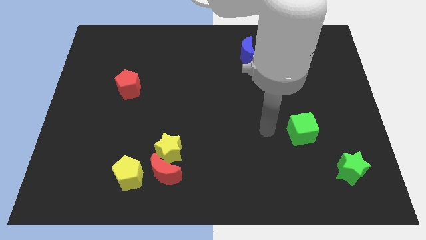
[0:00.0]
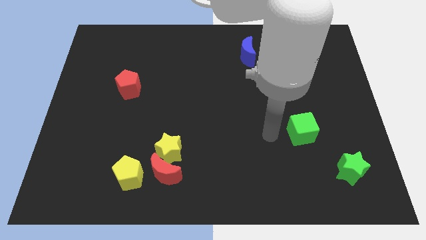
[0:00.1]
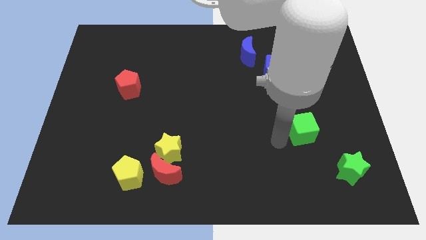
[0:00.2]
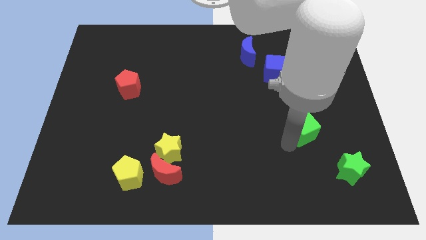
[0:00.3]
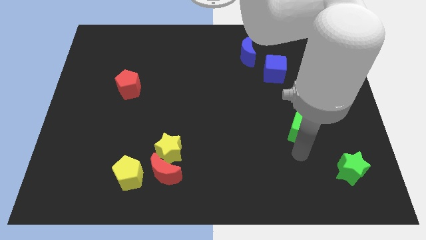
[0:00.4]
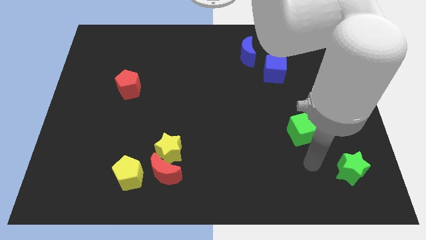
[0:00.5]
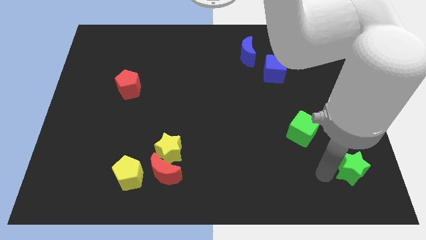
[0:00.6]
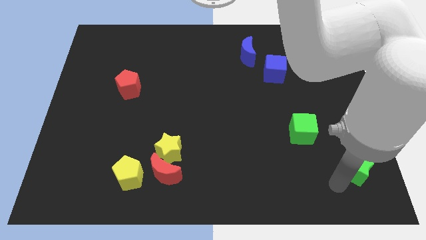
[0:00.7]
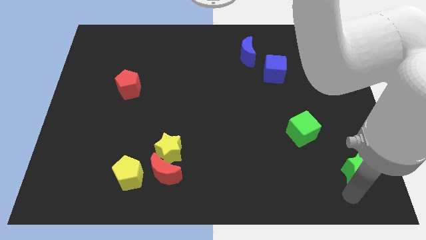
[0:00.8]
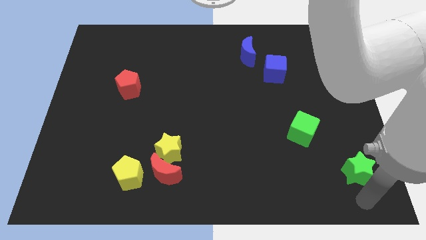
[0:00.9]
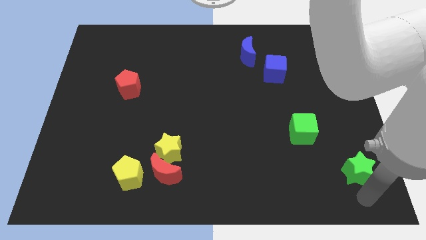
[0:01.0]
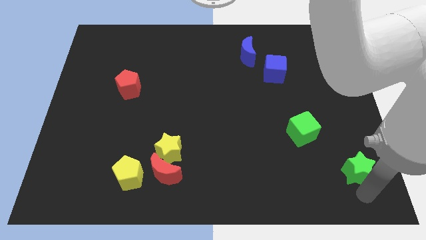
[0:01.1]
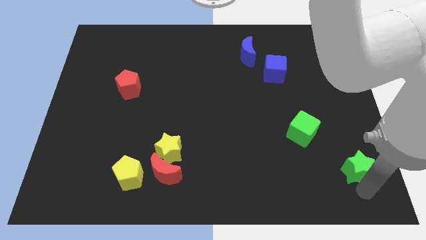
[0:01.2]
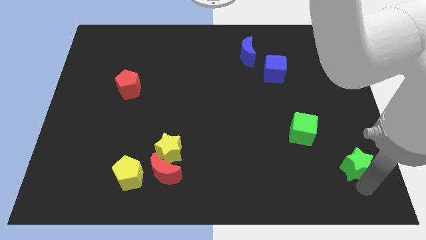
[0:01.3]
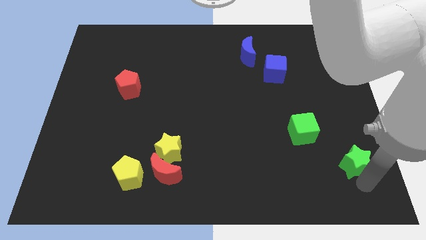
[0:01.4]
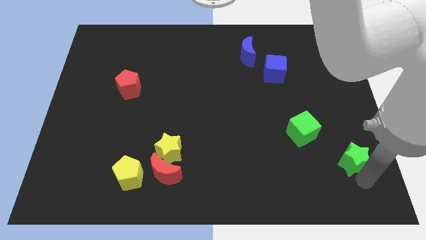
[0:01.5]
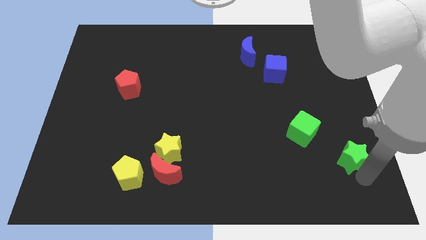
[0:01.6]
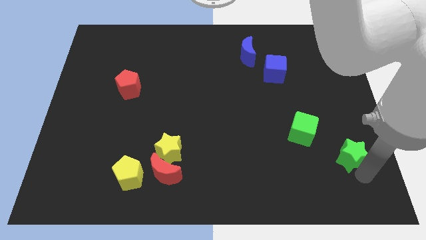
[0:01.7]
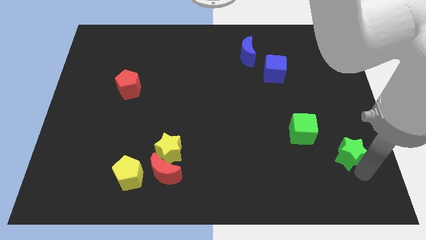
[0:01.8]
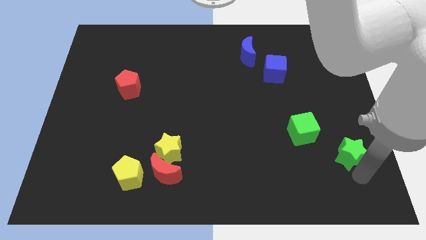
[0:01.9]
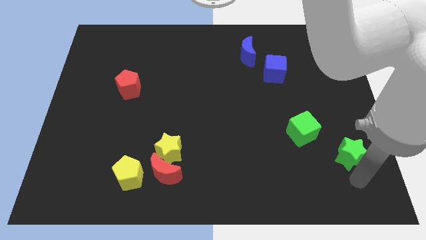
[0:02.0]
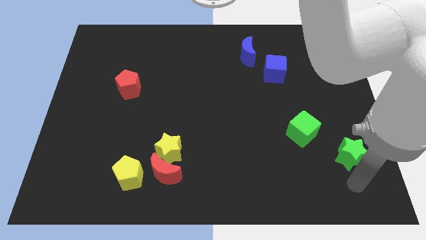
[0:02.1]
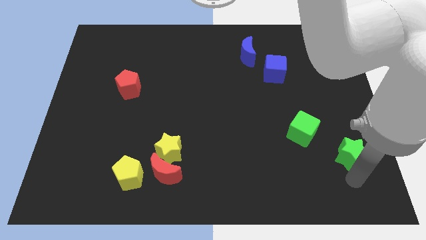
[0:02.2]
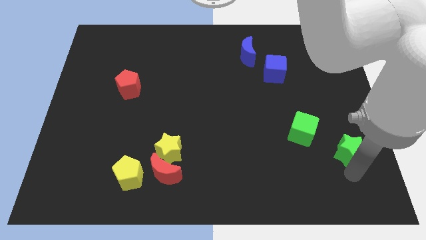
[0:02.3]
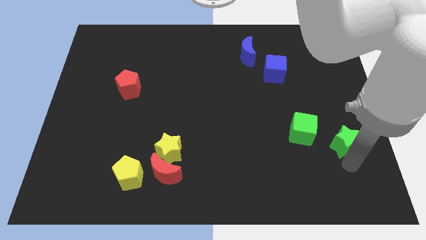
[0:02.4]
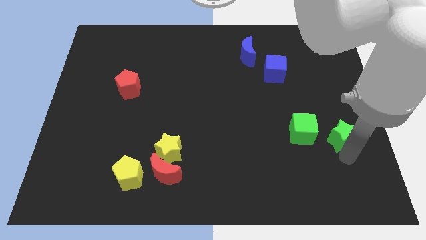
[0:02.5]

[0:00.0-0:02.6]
move the green star up somewhat

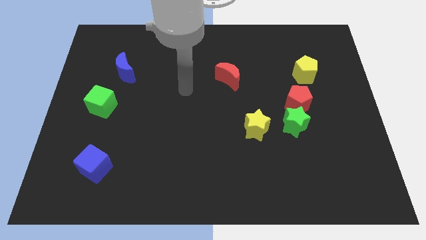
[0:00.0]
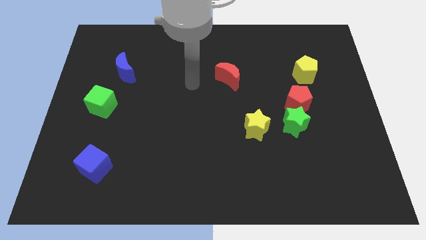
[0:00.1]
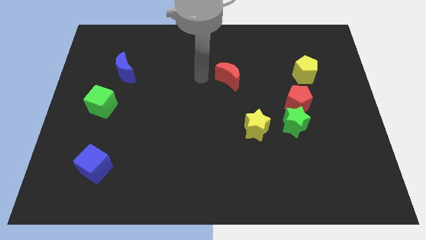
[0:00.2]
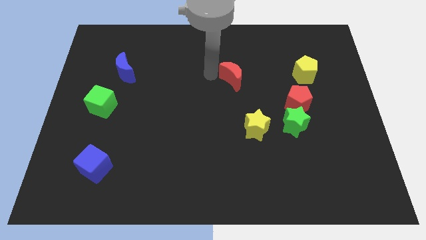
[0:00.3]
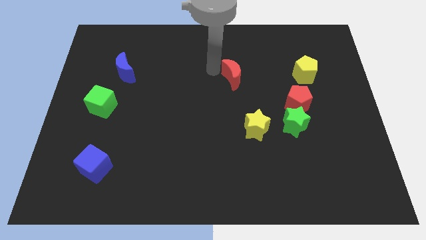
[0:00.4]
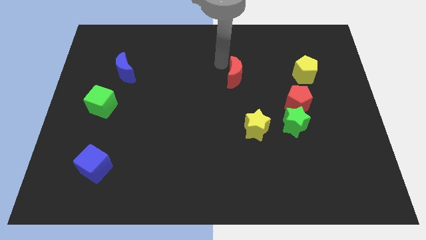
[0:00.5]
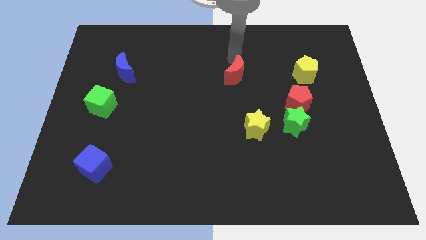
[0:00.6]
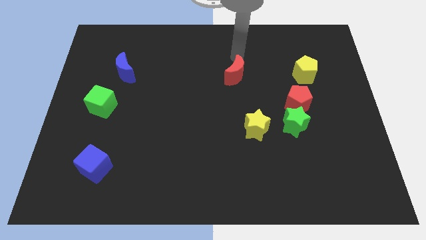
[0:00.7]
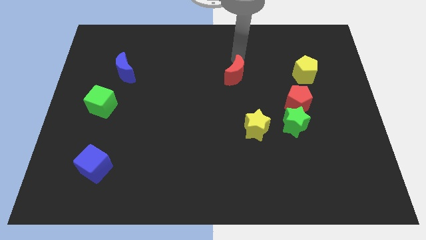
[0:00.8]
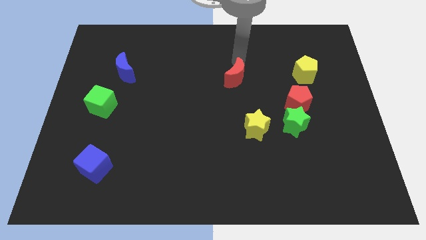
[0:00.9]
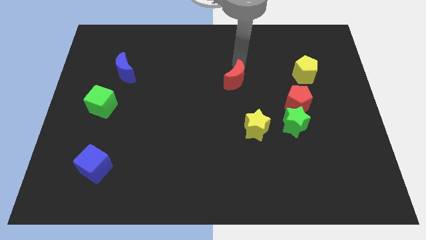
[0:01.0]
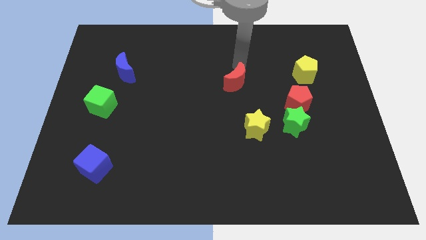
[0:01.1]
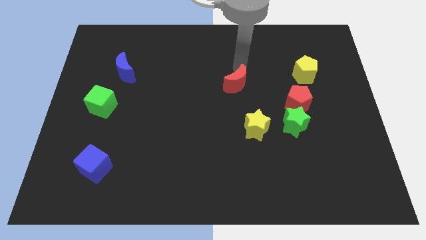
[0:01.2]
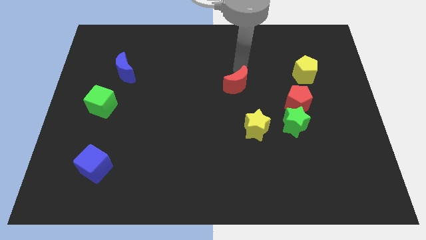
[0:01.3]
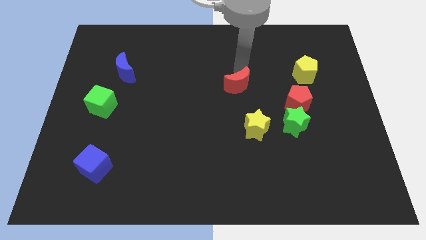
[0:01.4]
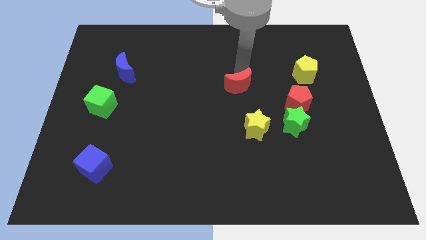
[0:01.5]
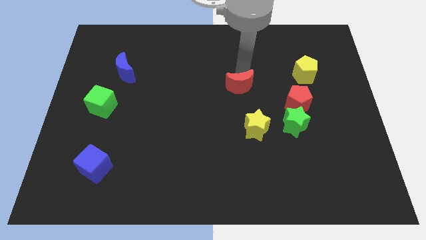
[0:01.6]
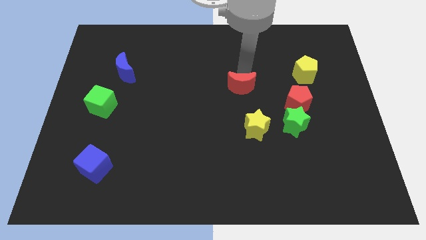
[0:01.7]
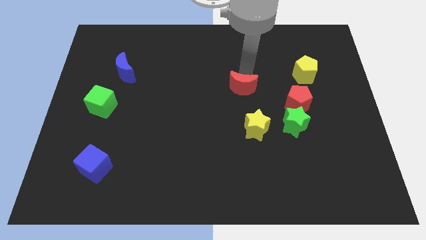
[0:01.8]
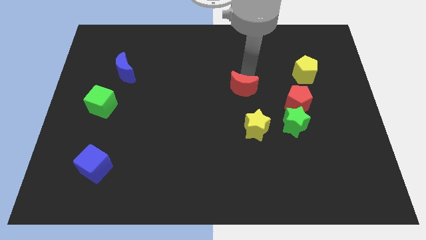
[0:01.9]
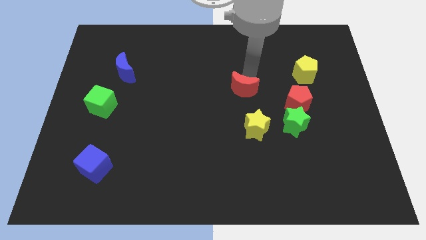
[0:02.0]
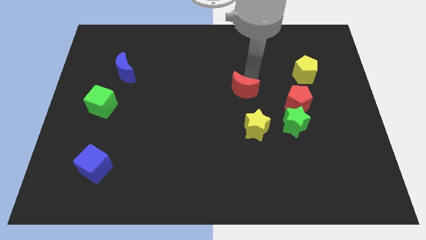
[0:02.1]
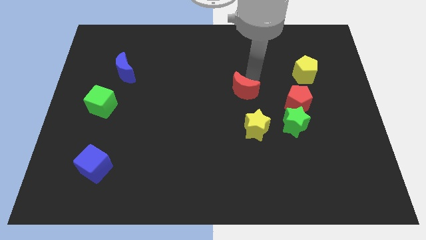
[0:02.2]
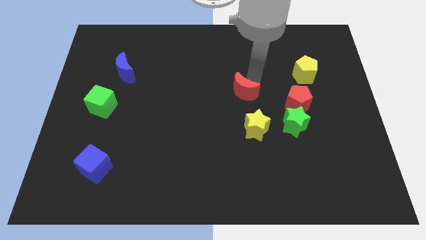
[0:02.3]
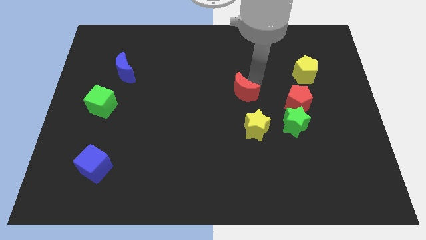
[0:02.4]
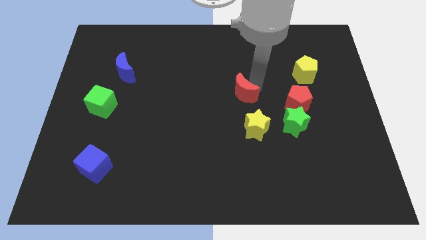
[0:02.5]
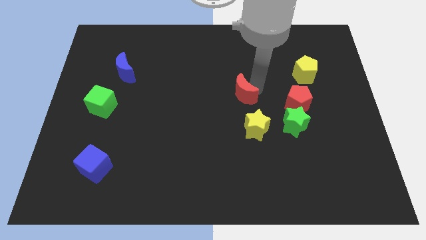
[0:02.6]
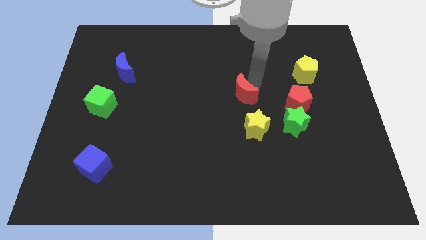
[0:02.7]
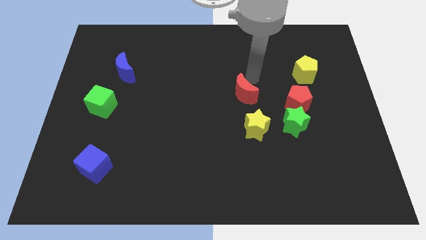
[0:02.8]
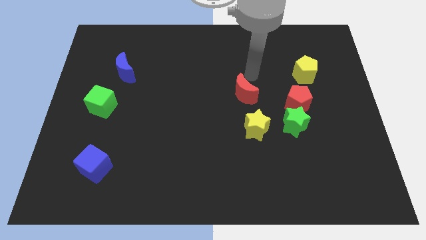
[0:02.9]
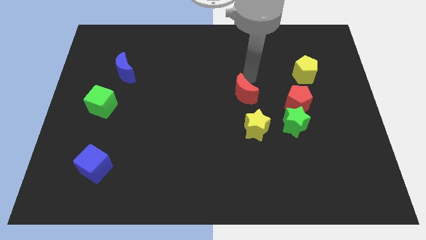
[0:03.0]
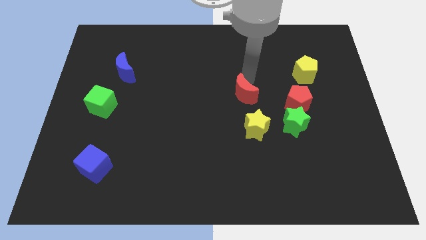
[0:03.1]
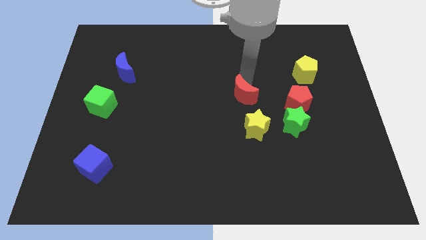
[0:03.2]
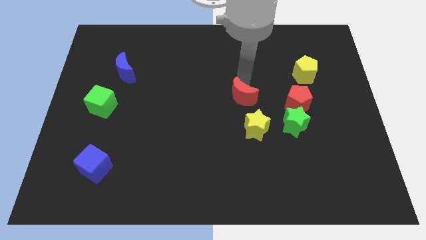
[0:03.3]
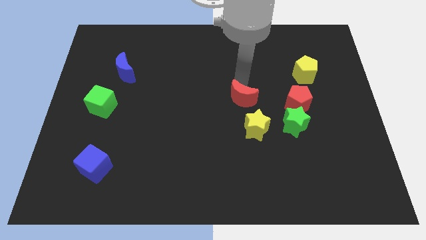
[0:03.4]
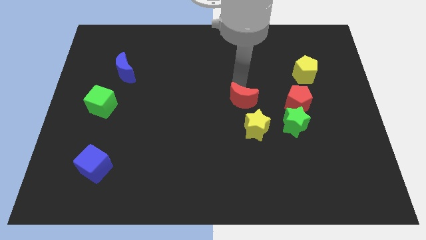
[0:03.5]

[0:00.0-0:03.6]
slide the red moon down slightly

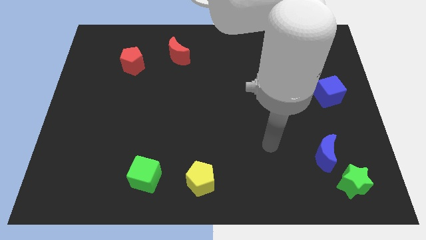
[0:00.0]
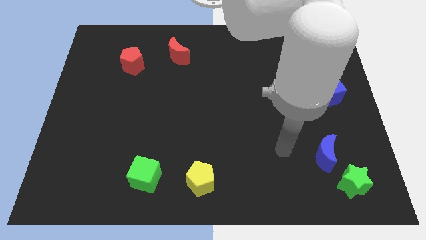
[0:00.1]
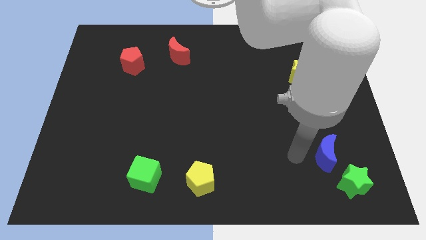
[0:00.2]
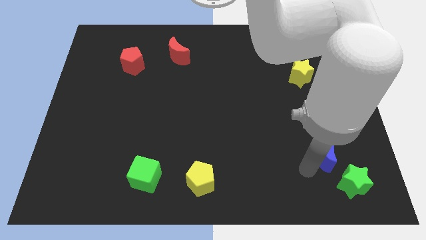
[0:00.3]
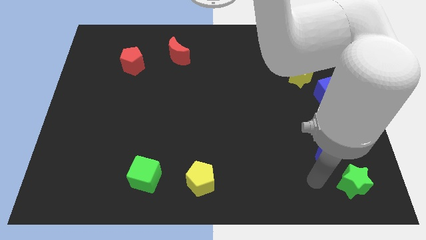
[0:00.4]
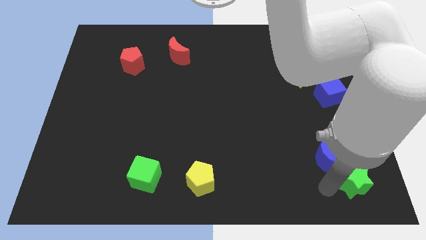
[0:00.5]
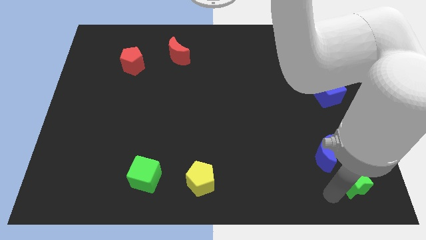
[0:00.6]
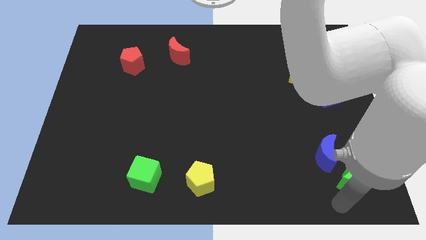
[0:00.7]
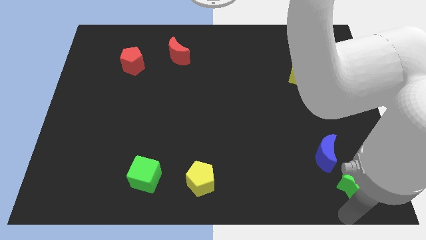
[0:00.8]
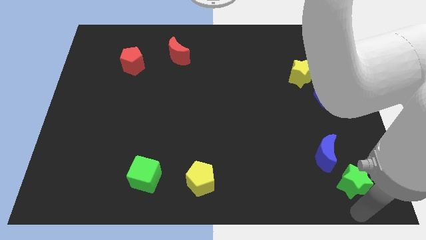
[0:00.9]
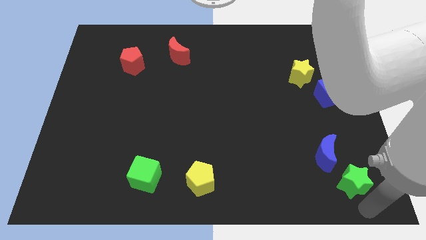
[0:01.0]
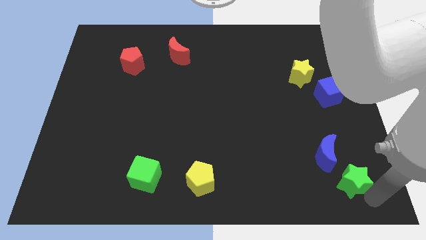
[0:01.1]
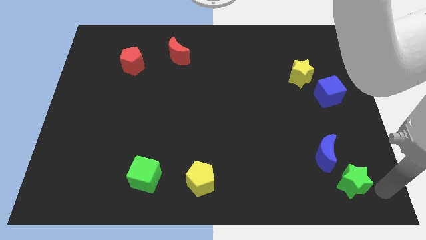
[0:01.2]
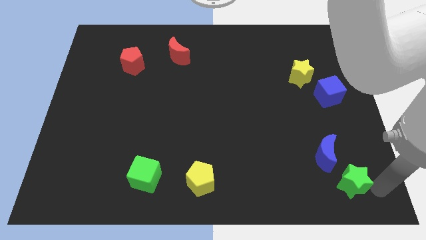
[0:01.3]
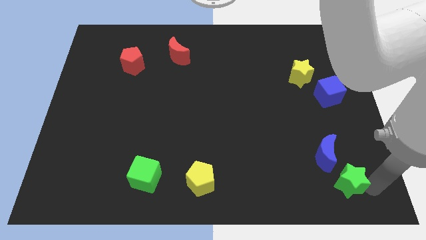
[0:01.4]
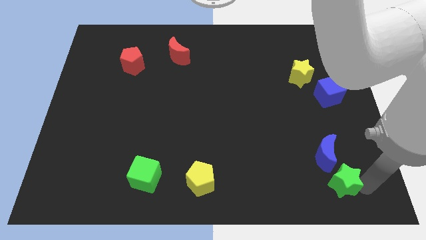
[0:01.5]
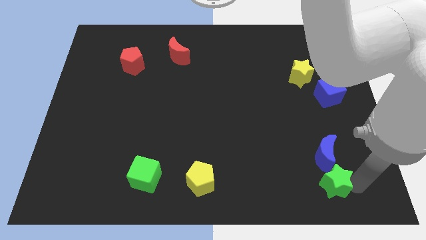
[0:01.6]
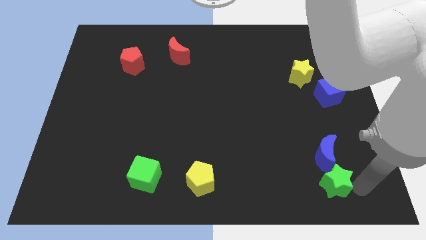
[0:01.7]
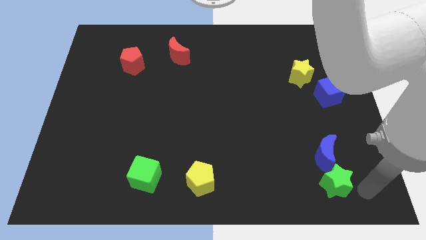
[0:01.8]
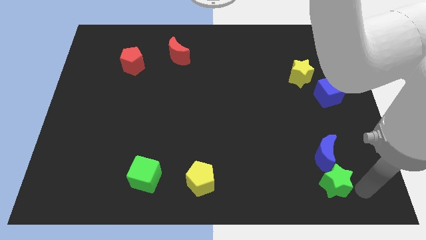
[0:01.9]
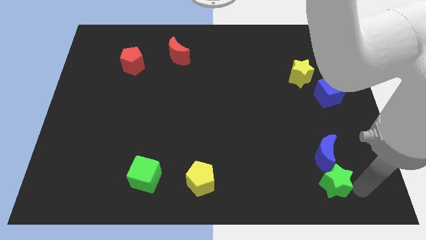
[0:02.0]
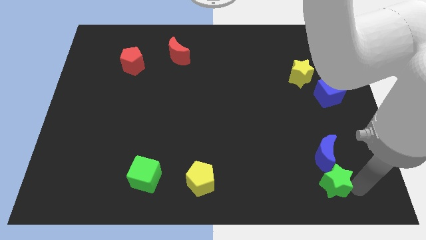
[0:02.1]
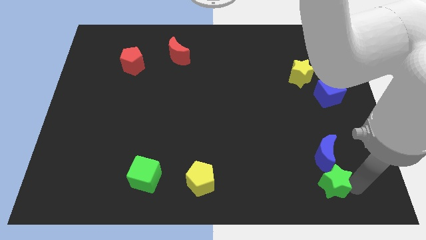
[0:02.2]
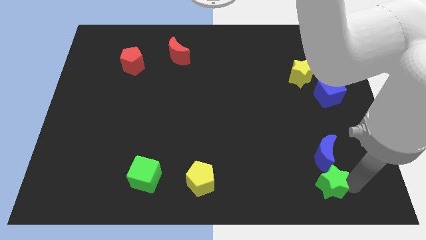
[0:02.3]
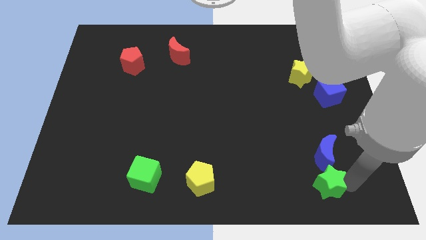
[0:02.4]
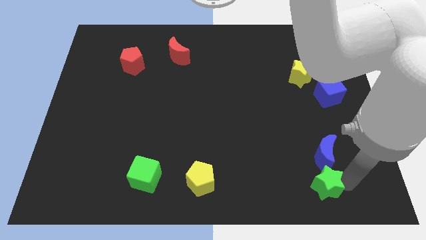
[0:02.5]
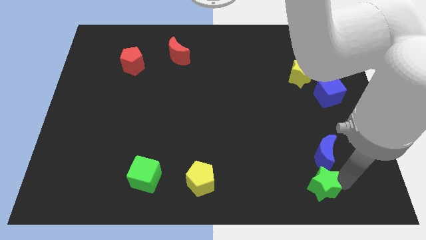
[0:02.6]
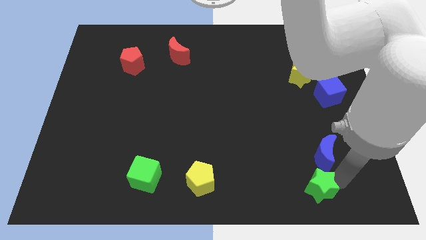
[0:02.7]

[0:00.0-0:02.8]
slightly slide the green star to the left
